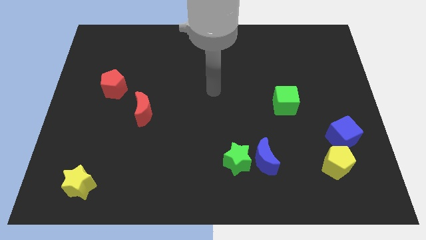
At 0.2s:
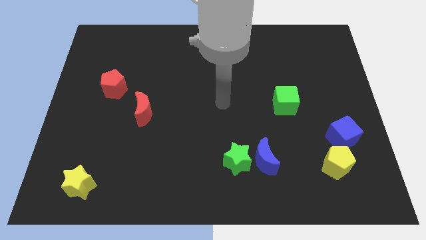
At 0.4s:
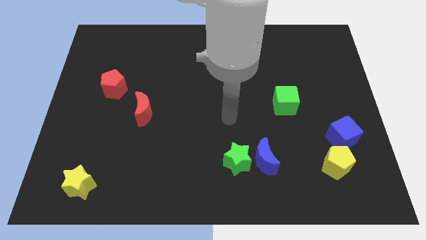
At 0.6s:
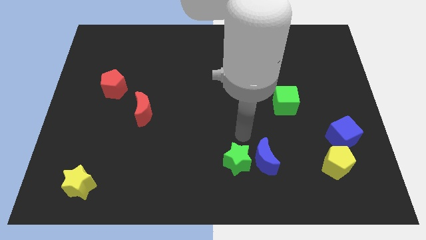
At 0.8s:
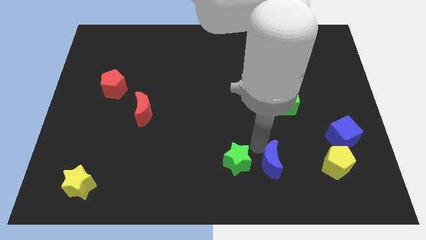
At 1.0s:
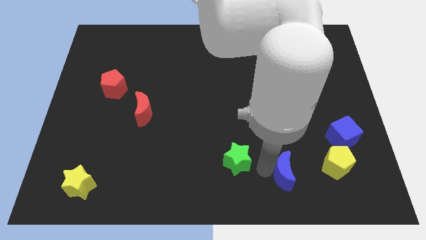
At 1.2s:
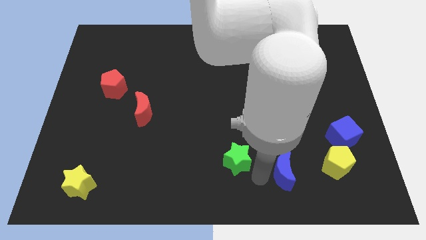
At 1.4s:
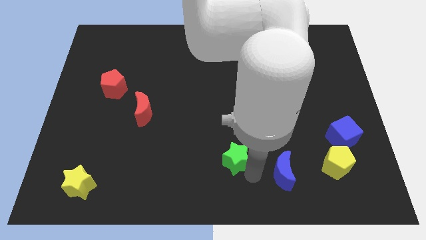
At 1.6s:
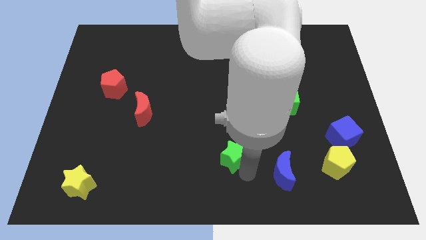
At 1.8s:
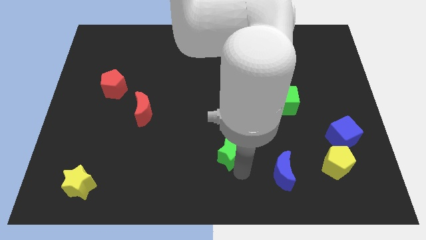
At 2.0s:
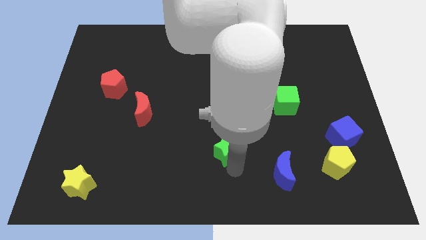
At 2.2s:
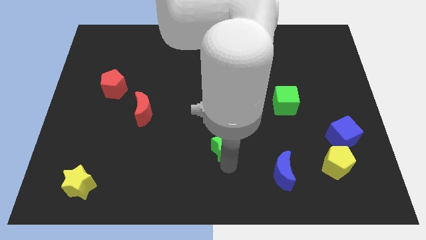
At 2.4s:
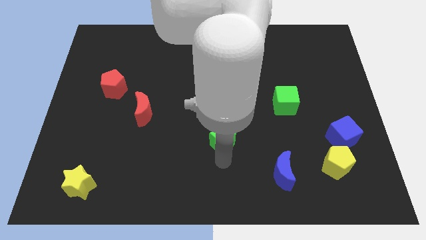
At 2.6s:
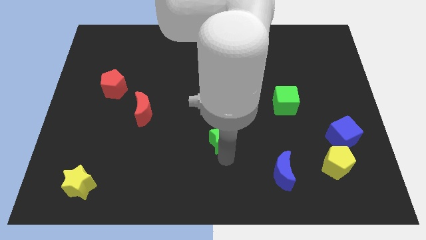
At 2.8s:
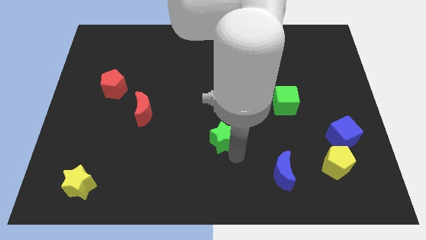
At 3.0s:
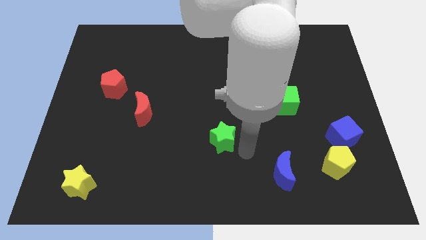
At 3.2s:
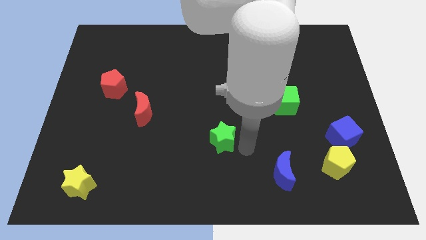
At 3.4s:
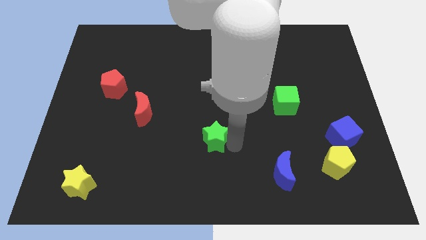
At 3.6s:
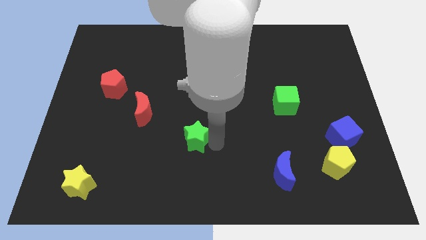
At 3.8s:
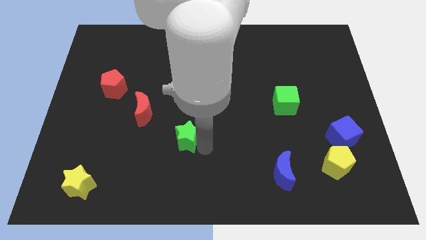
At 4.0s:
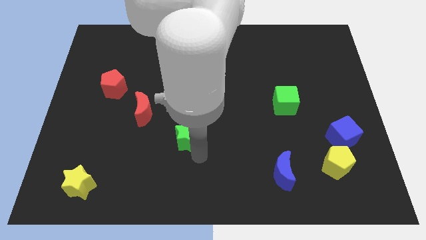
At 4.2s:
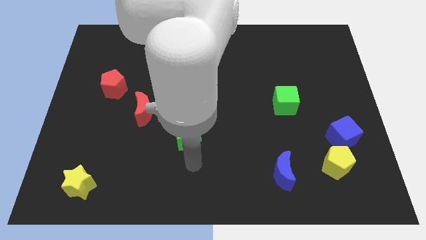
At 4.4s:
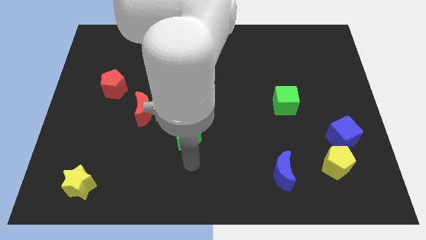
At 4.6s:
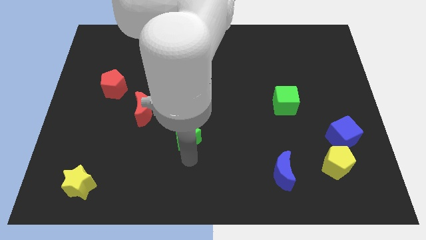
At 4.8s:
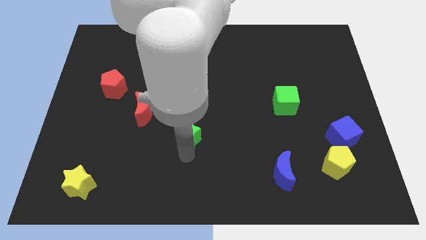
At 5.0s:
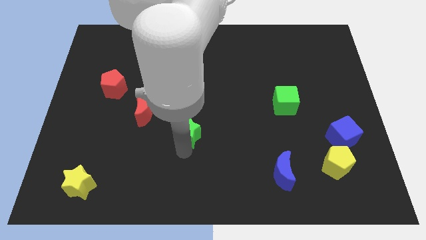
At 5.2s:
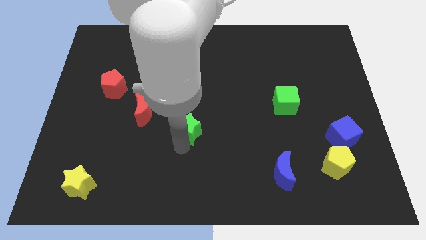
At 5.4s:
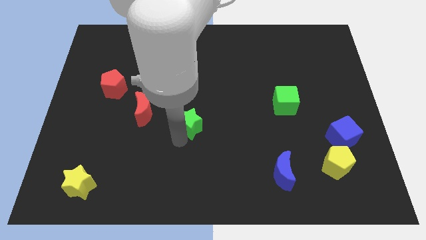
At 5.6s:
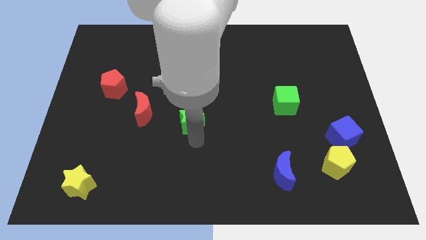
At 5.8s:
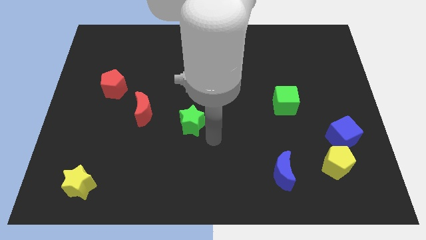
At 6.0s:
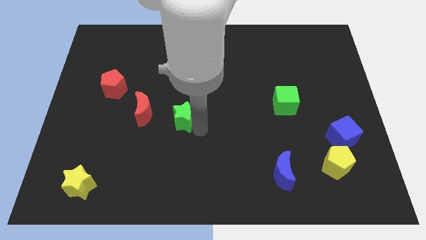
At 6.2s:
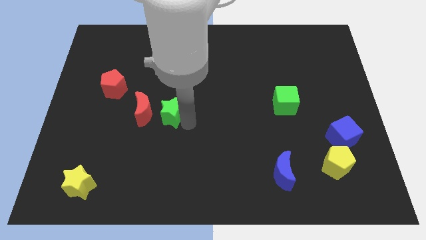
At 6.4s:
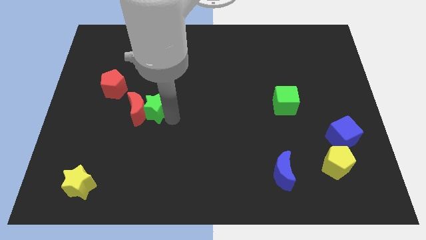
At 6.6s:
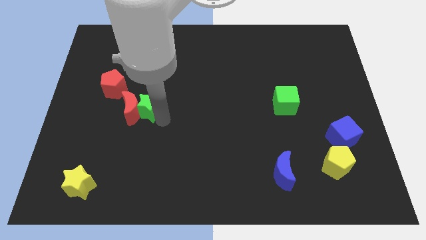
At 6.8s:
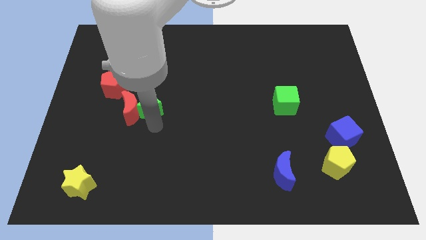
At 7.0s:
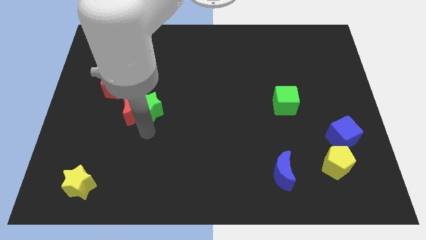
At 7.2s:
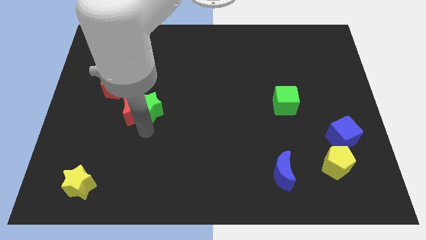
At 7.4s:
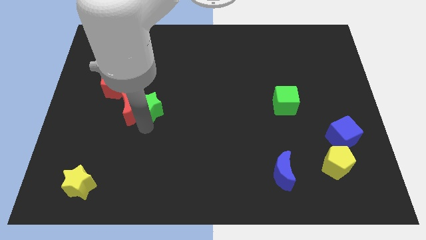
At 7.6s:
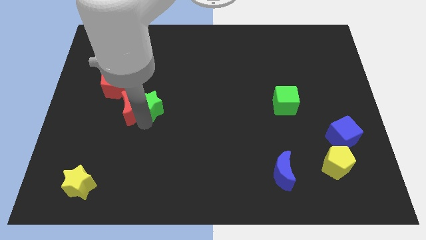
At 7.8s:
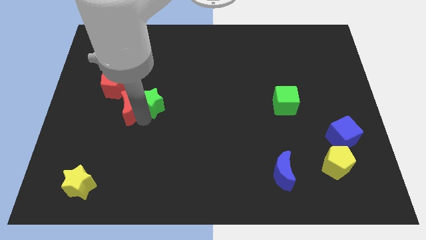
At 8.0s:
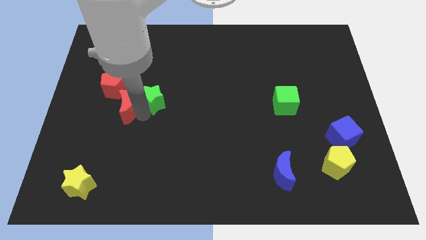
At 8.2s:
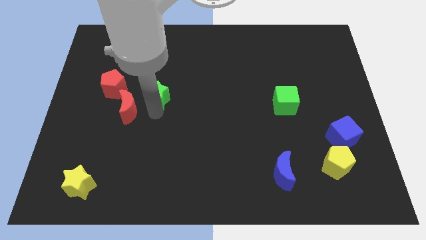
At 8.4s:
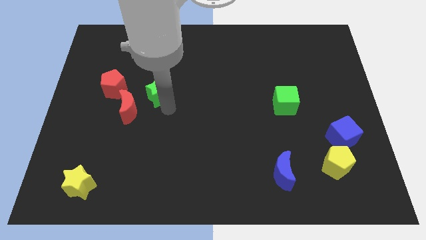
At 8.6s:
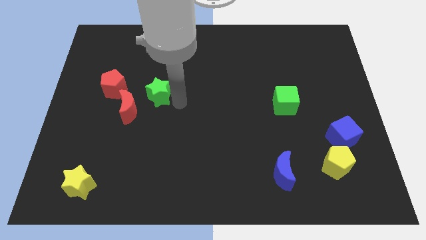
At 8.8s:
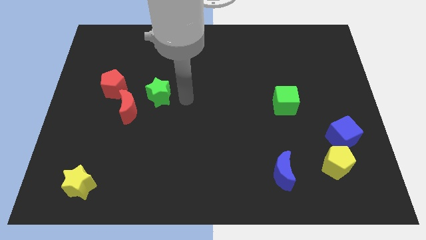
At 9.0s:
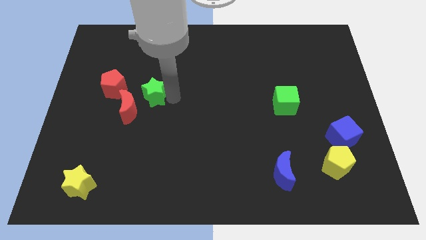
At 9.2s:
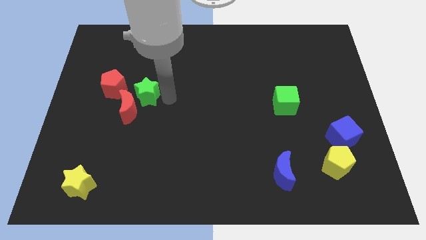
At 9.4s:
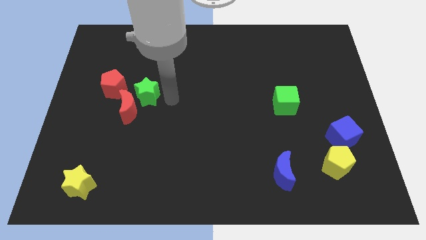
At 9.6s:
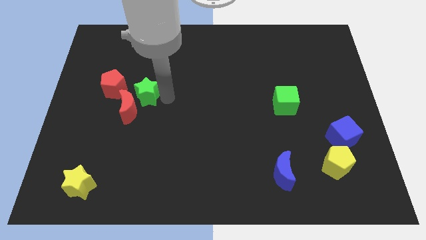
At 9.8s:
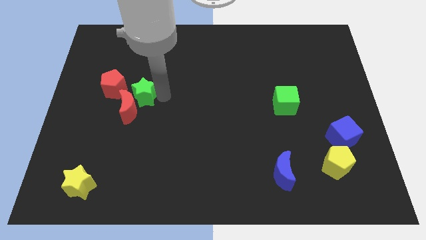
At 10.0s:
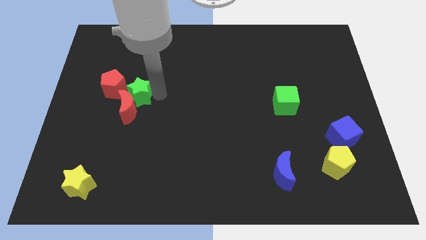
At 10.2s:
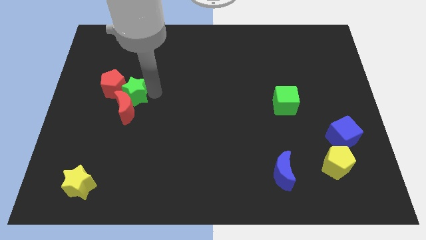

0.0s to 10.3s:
push the green star next to the red pentagon

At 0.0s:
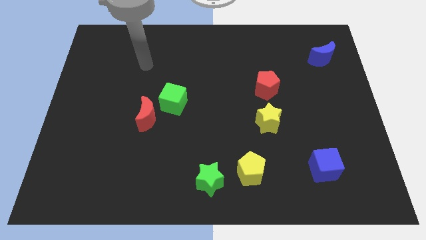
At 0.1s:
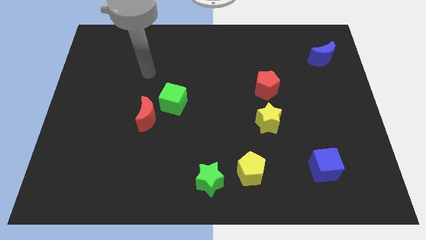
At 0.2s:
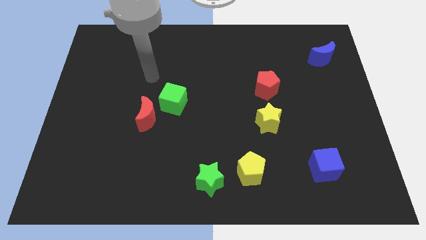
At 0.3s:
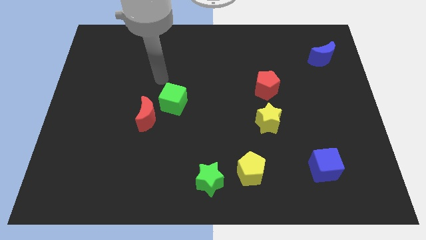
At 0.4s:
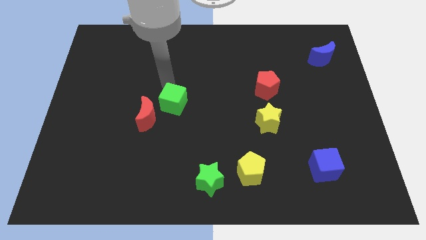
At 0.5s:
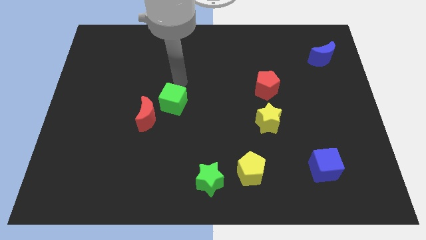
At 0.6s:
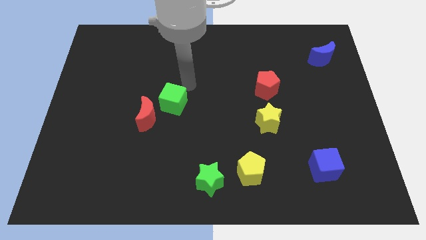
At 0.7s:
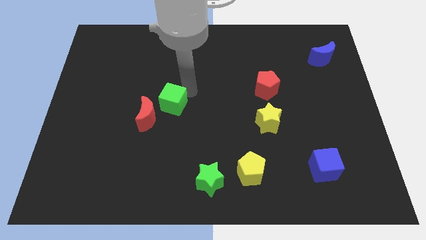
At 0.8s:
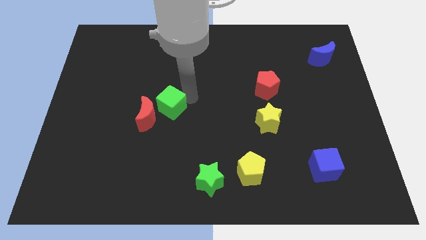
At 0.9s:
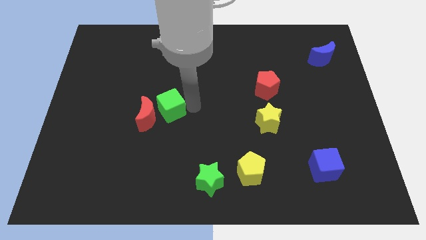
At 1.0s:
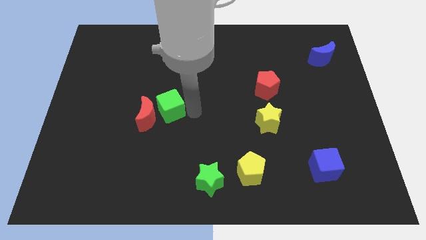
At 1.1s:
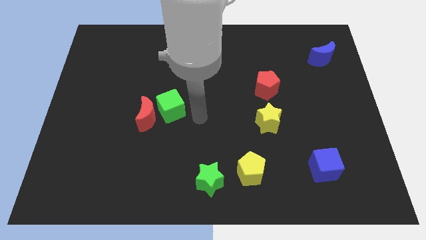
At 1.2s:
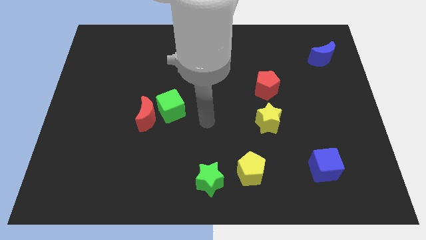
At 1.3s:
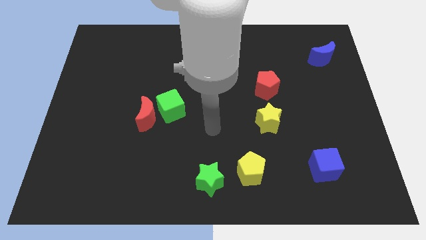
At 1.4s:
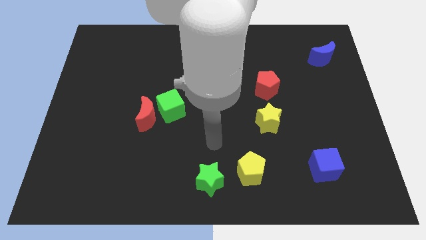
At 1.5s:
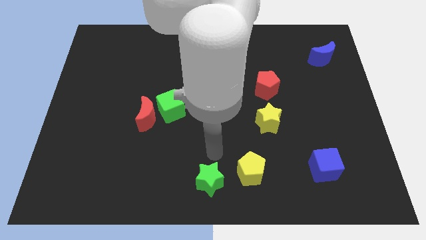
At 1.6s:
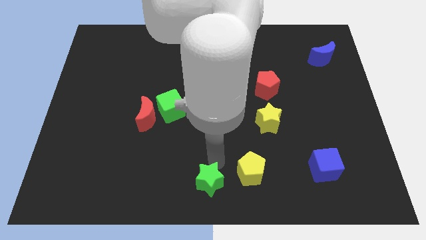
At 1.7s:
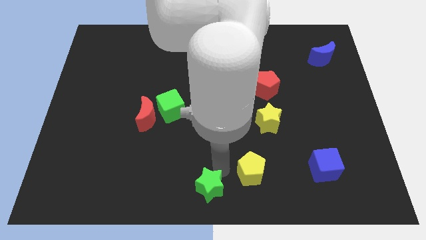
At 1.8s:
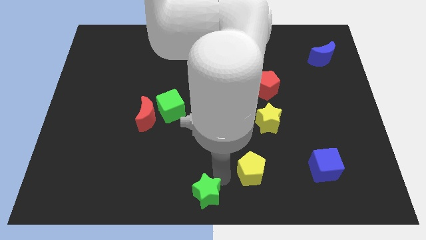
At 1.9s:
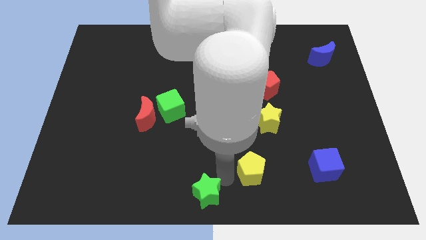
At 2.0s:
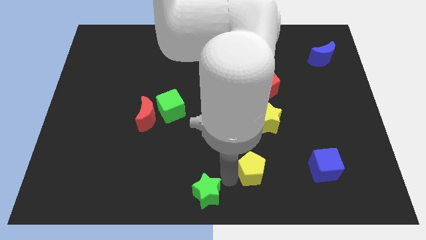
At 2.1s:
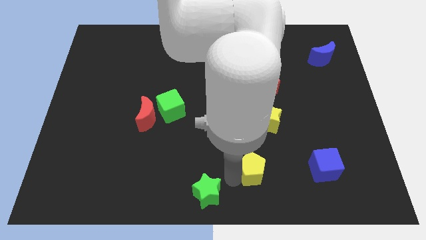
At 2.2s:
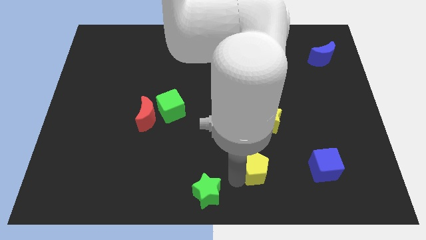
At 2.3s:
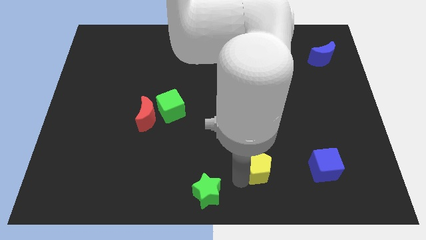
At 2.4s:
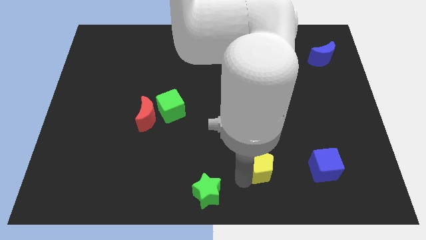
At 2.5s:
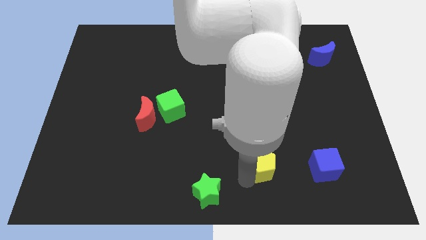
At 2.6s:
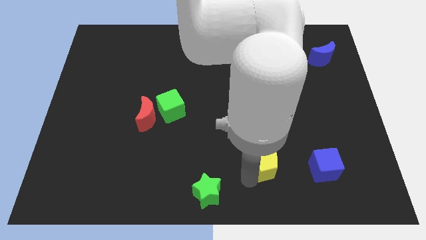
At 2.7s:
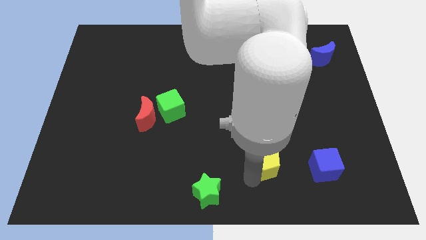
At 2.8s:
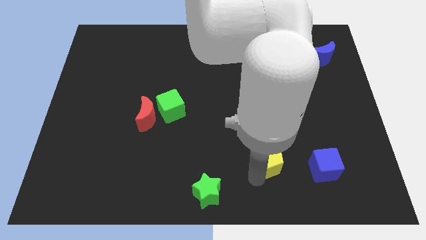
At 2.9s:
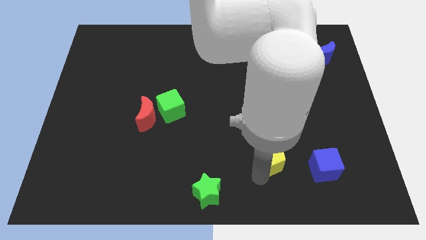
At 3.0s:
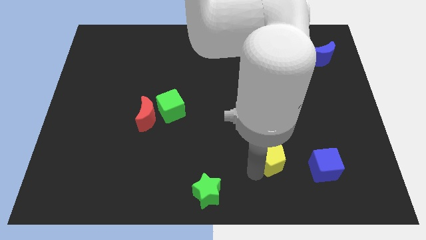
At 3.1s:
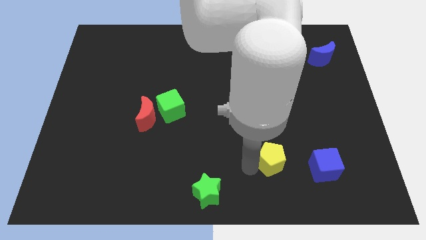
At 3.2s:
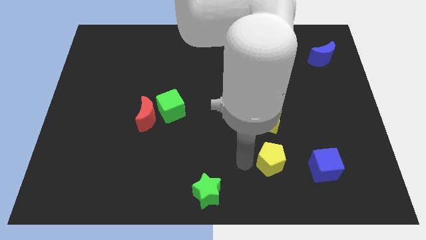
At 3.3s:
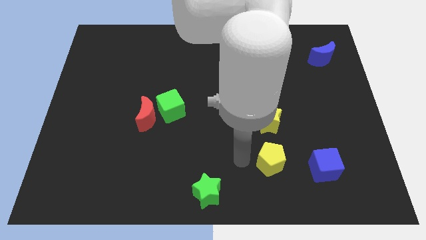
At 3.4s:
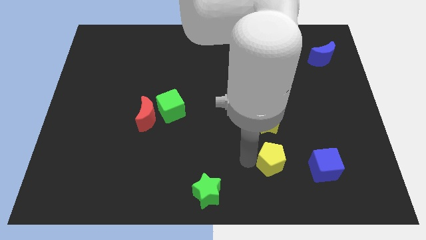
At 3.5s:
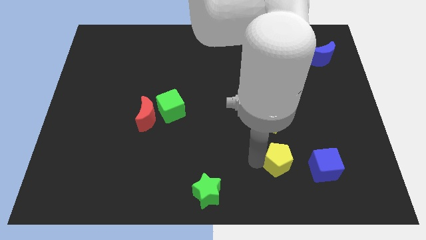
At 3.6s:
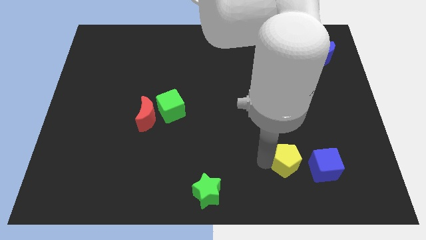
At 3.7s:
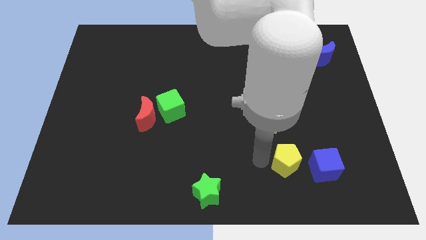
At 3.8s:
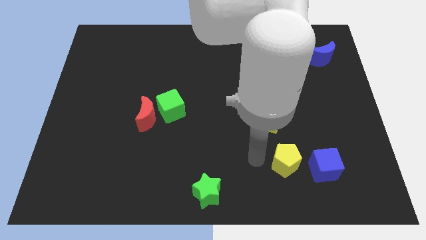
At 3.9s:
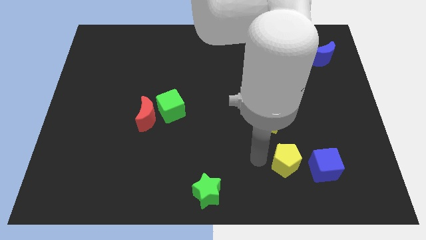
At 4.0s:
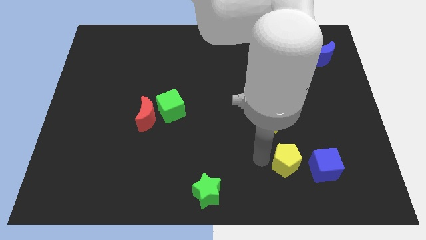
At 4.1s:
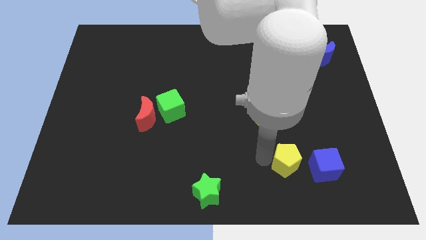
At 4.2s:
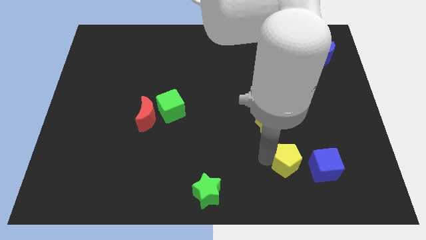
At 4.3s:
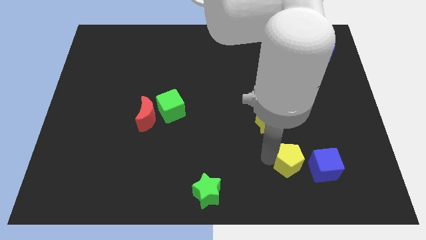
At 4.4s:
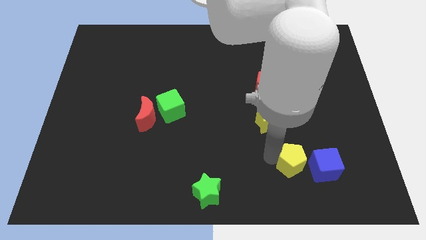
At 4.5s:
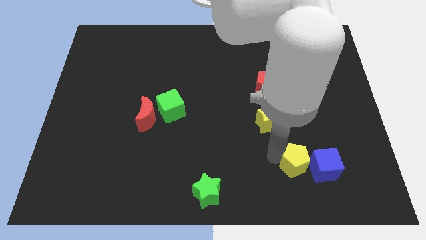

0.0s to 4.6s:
push the yellow pentagon to the blue cube
